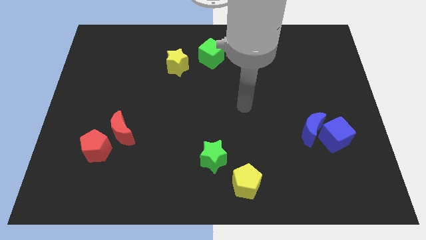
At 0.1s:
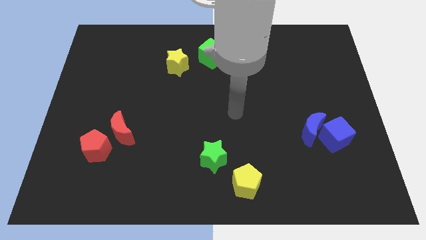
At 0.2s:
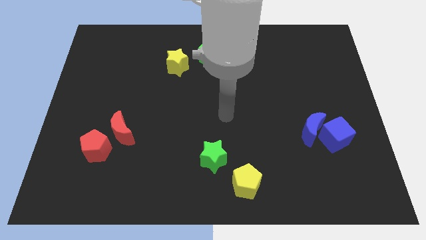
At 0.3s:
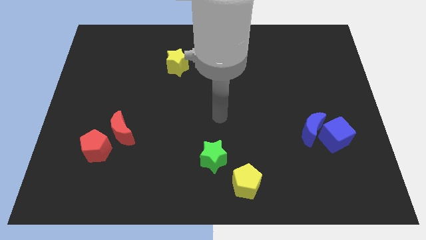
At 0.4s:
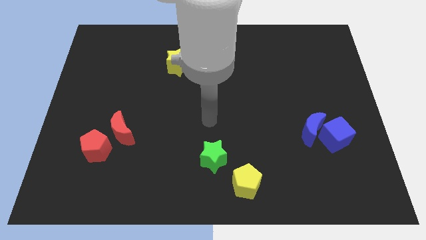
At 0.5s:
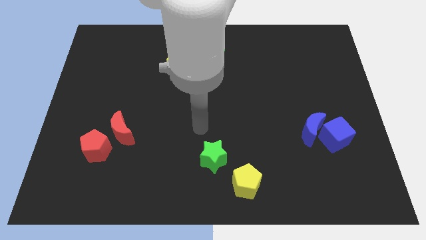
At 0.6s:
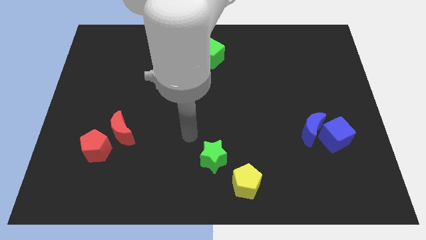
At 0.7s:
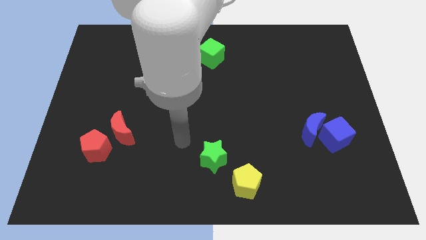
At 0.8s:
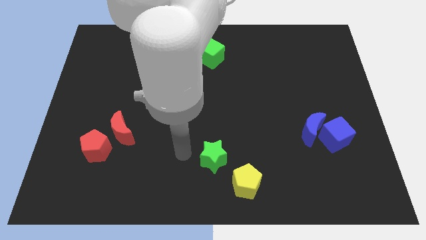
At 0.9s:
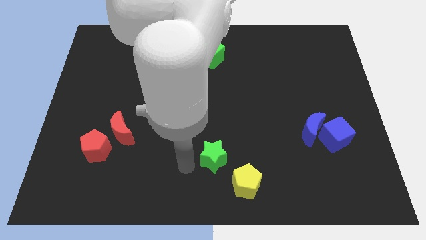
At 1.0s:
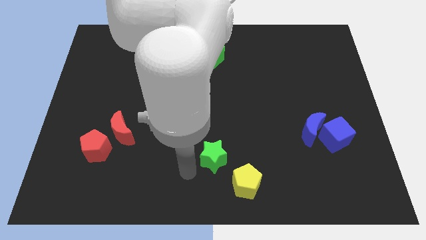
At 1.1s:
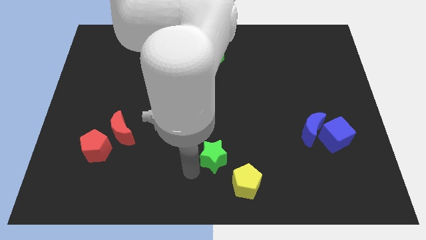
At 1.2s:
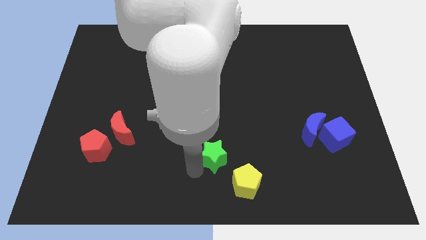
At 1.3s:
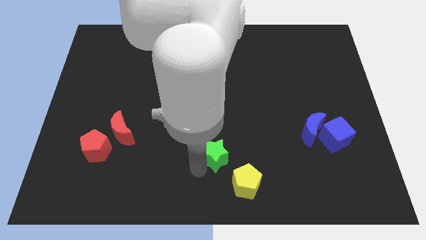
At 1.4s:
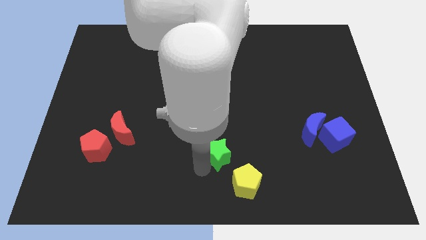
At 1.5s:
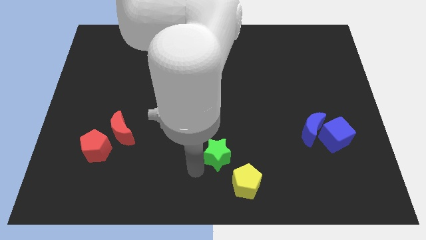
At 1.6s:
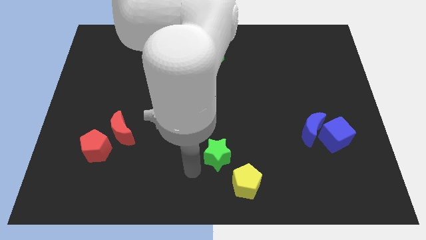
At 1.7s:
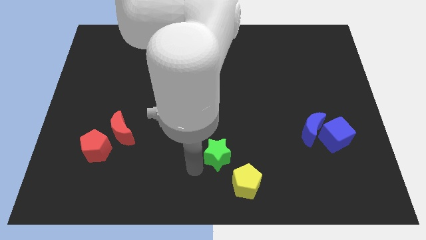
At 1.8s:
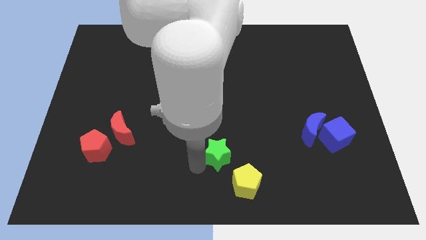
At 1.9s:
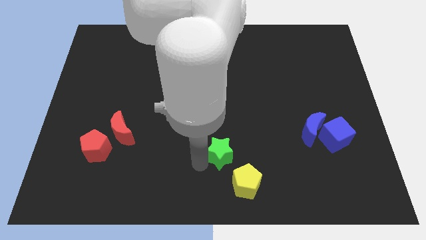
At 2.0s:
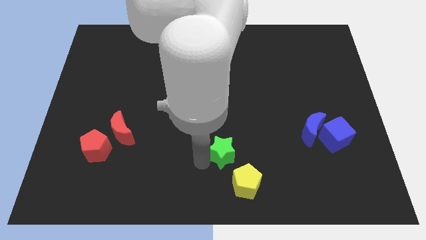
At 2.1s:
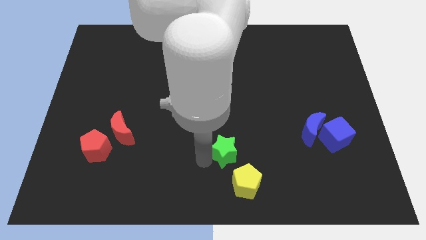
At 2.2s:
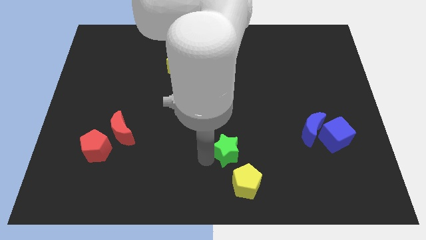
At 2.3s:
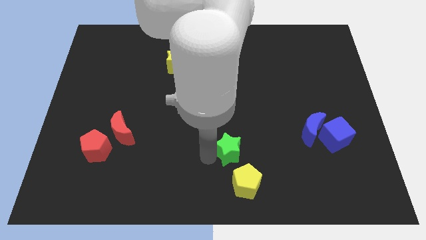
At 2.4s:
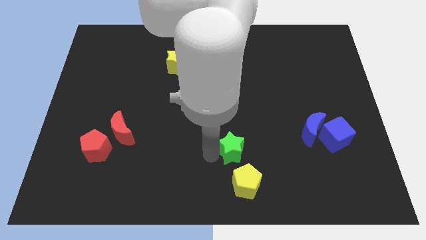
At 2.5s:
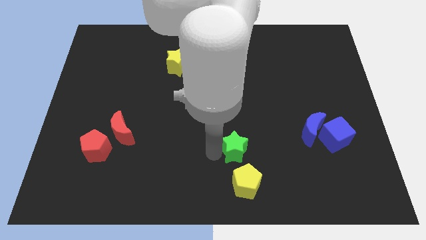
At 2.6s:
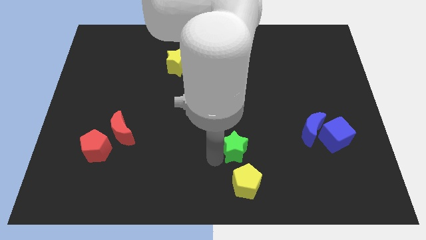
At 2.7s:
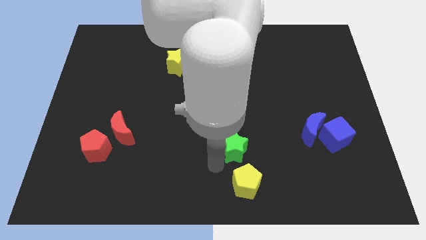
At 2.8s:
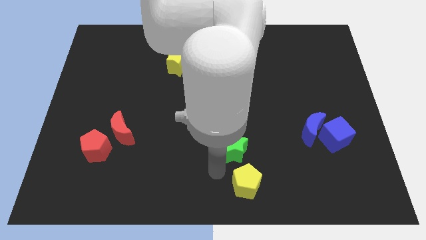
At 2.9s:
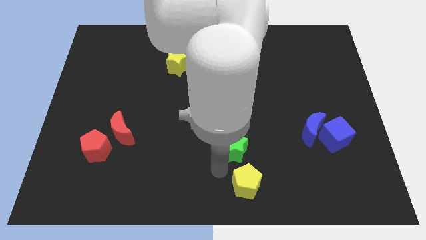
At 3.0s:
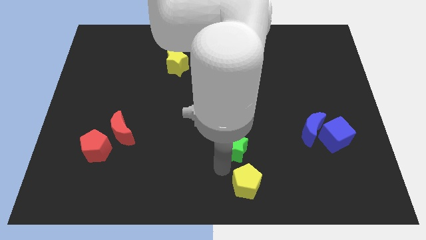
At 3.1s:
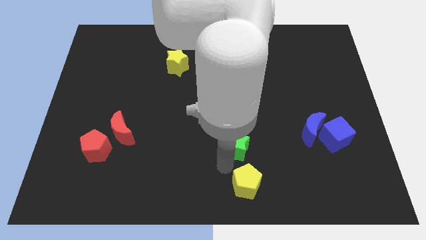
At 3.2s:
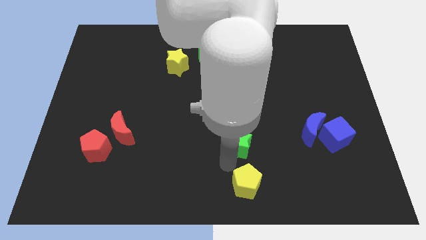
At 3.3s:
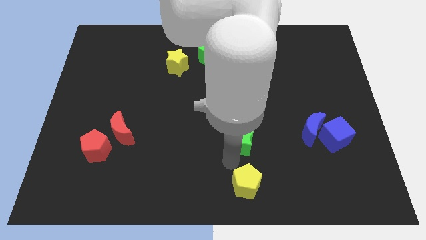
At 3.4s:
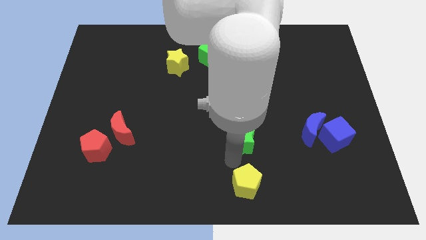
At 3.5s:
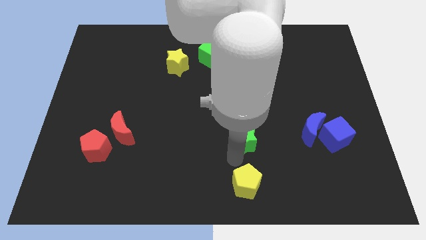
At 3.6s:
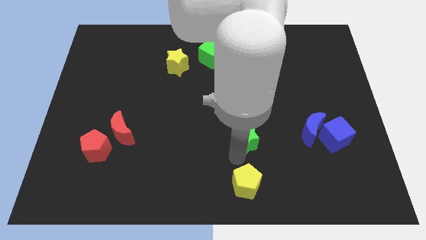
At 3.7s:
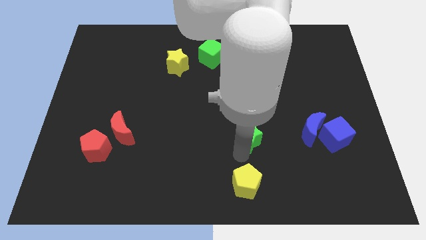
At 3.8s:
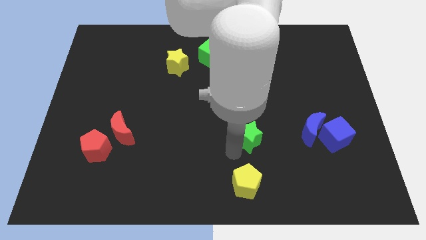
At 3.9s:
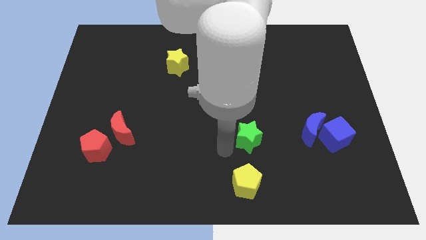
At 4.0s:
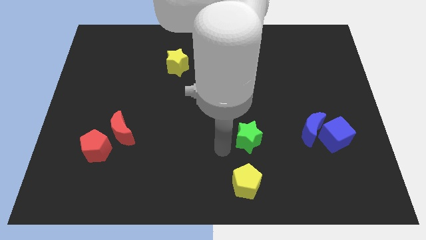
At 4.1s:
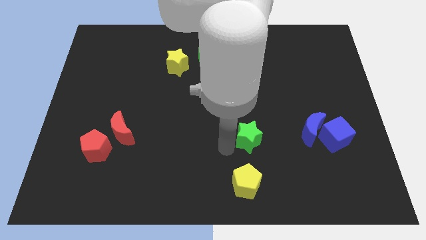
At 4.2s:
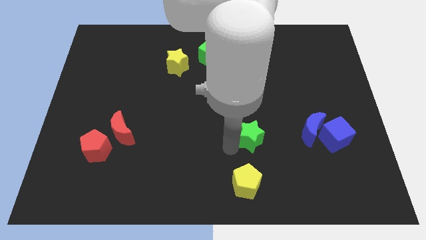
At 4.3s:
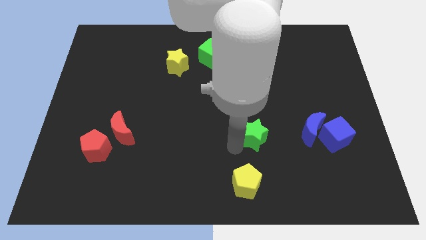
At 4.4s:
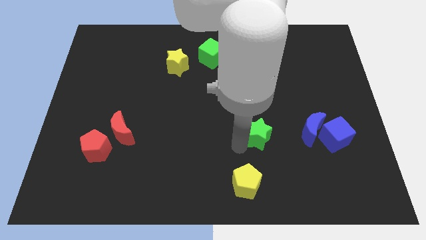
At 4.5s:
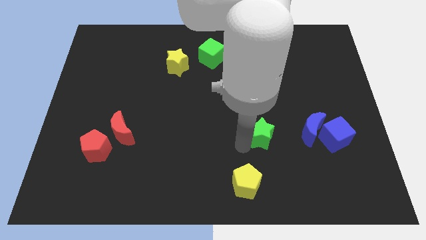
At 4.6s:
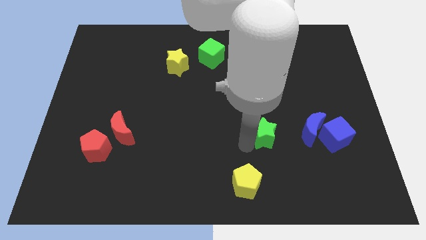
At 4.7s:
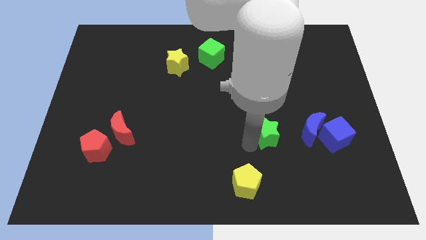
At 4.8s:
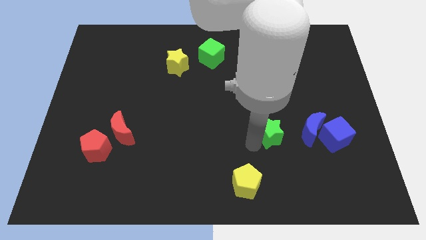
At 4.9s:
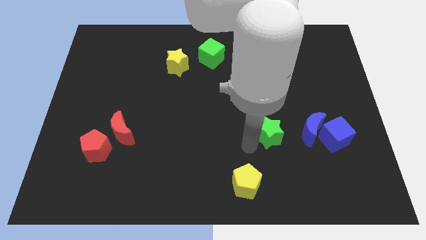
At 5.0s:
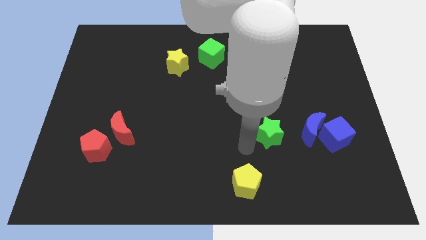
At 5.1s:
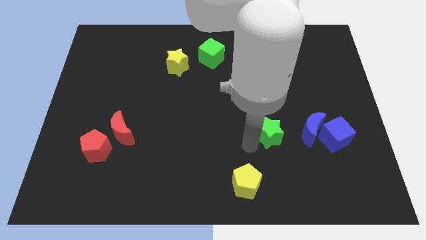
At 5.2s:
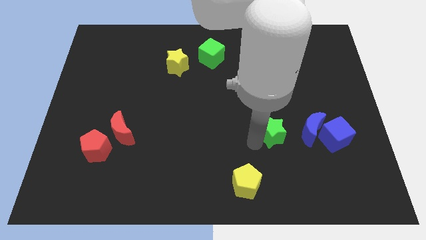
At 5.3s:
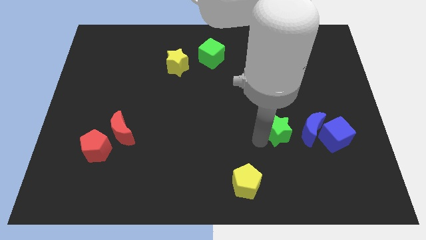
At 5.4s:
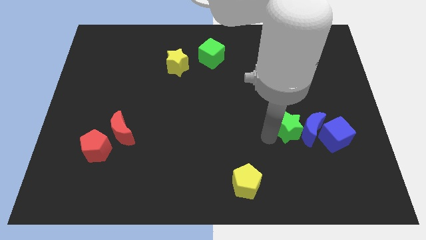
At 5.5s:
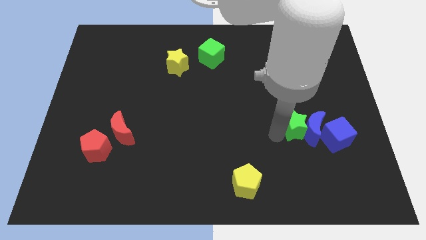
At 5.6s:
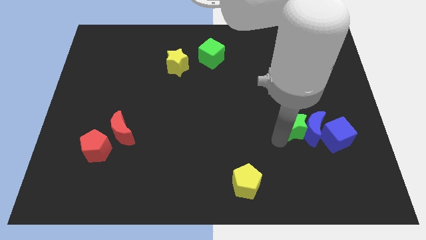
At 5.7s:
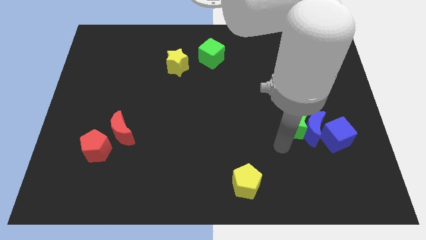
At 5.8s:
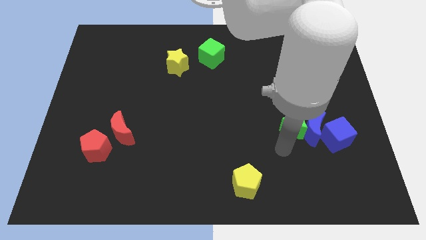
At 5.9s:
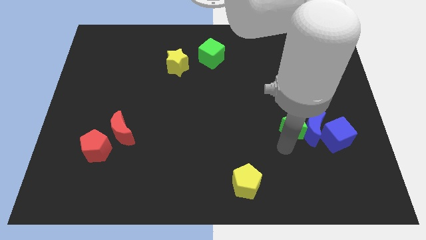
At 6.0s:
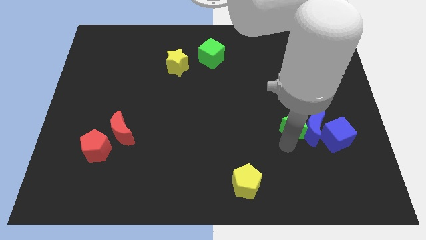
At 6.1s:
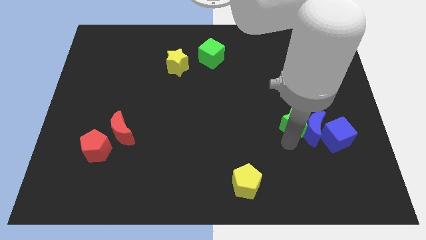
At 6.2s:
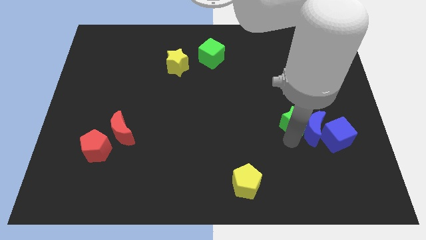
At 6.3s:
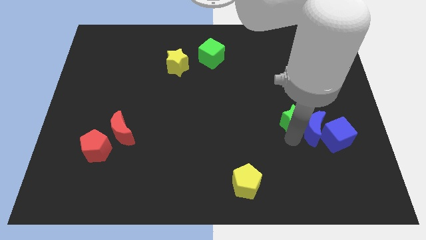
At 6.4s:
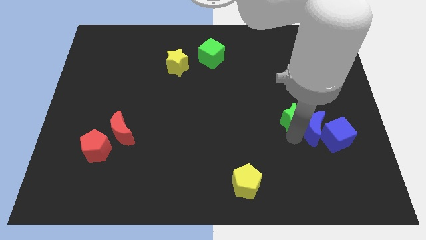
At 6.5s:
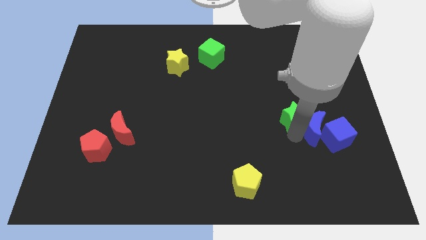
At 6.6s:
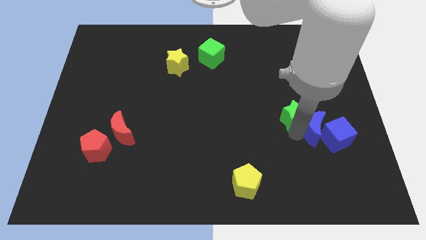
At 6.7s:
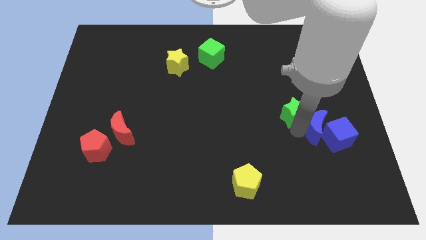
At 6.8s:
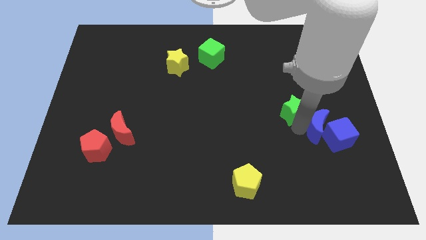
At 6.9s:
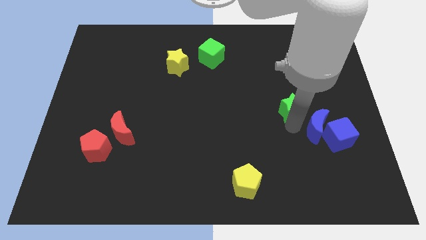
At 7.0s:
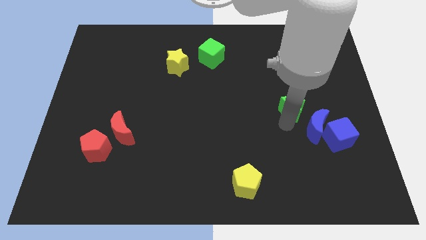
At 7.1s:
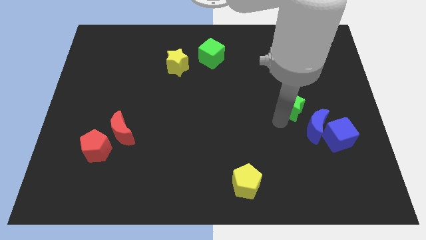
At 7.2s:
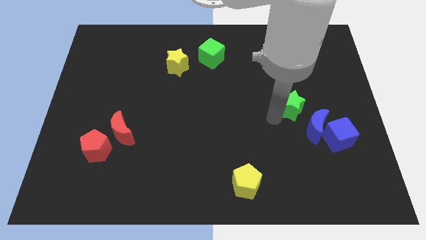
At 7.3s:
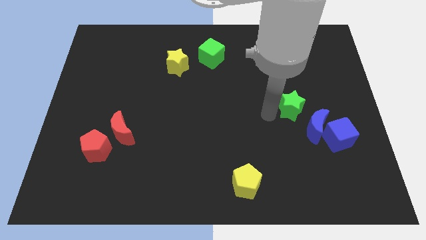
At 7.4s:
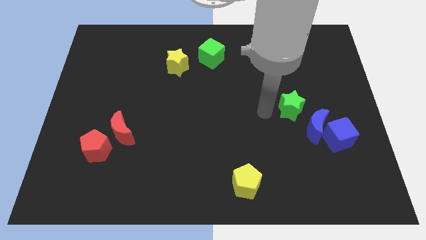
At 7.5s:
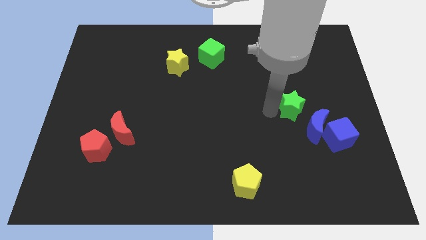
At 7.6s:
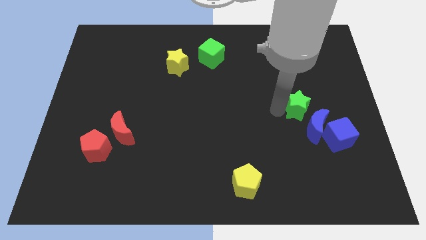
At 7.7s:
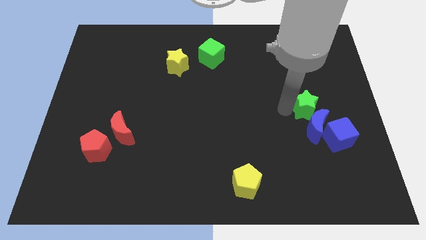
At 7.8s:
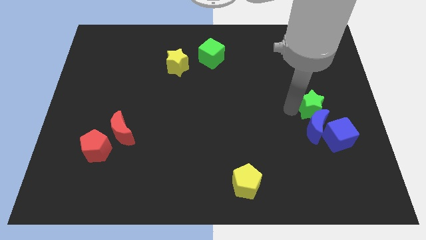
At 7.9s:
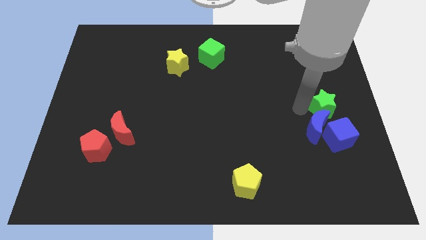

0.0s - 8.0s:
slide the green star to the right side of the board
